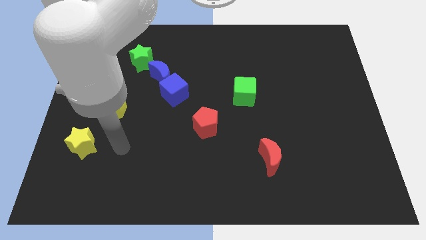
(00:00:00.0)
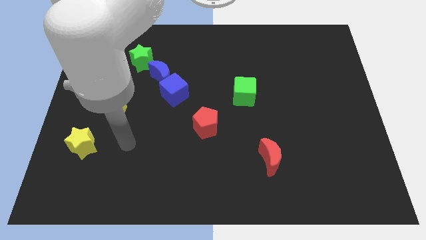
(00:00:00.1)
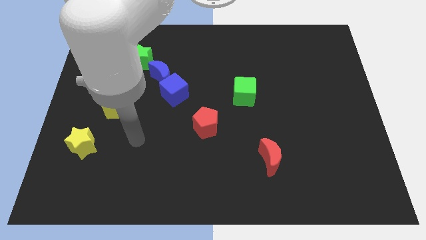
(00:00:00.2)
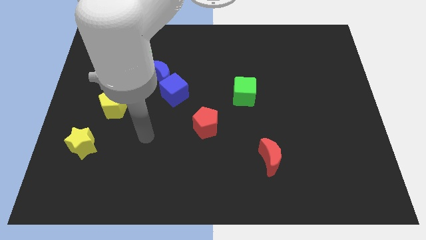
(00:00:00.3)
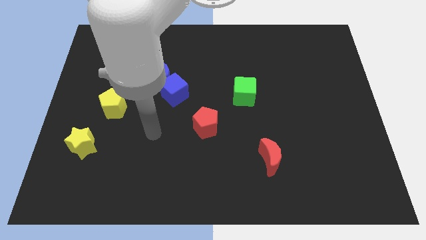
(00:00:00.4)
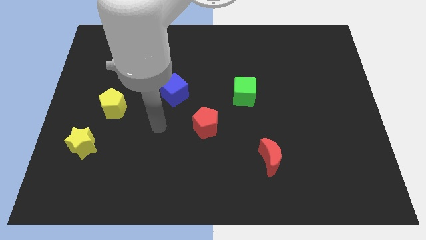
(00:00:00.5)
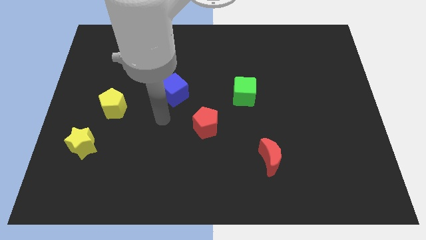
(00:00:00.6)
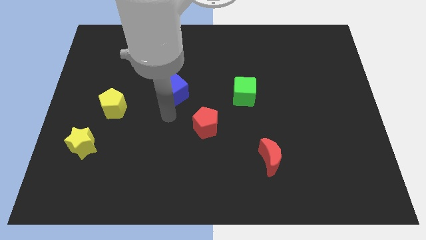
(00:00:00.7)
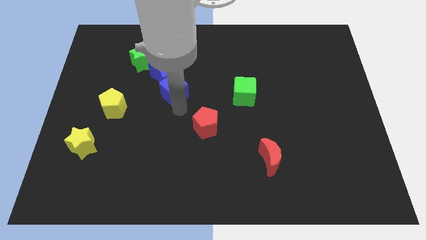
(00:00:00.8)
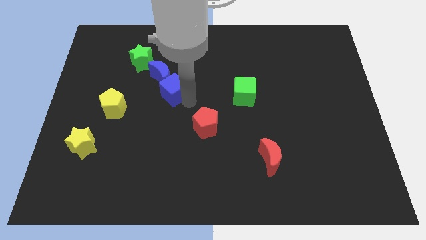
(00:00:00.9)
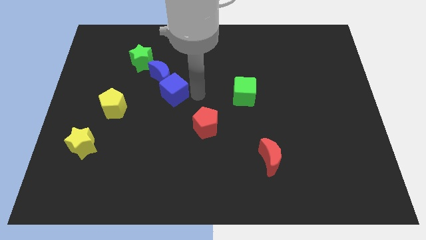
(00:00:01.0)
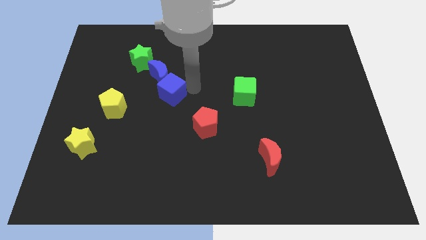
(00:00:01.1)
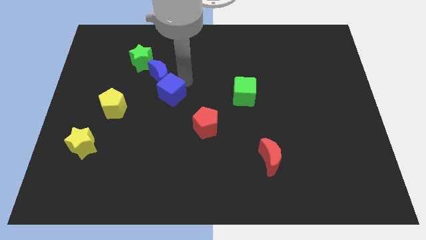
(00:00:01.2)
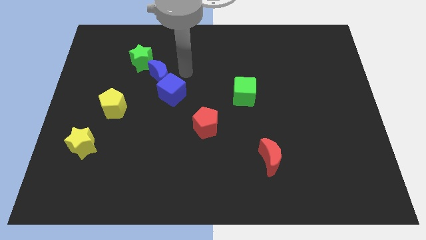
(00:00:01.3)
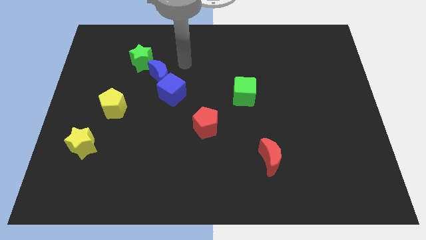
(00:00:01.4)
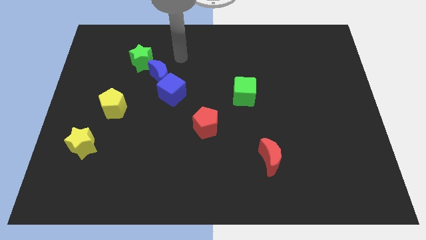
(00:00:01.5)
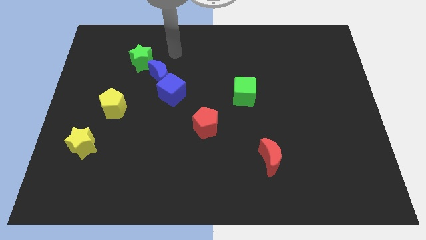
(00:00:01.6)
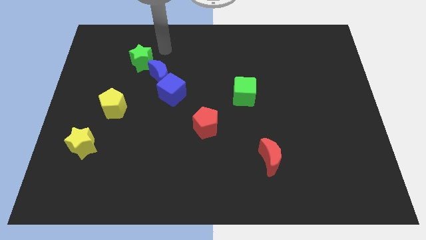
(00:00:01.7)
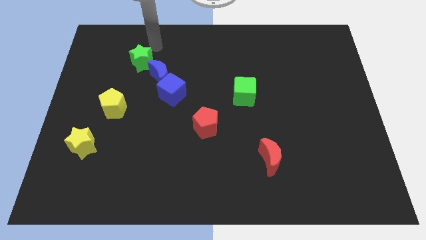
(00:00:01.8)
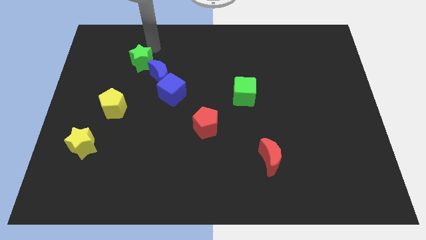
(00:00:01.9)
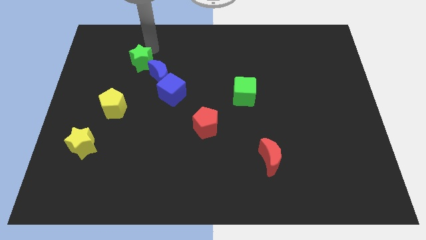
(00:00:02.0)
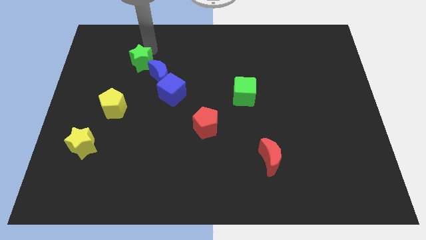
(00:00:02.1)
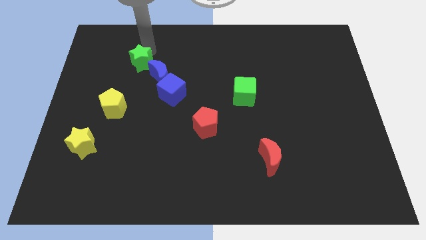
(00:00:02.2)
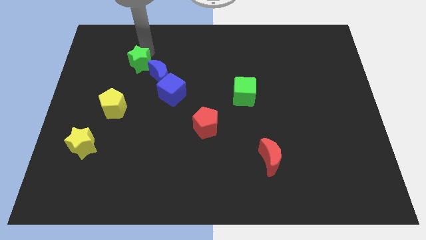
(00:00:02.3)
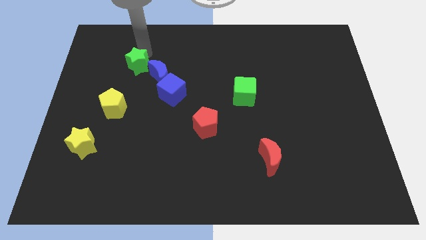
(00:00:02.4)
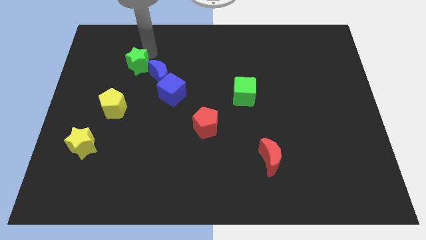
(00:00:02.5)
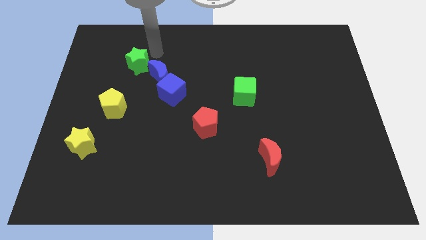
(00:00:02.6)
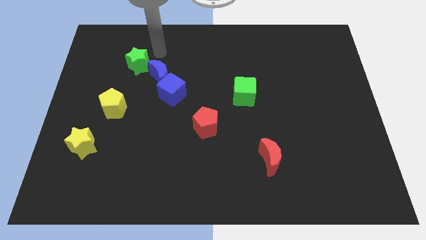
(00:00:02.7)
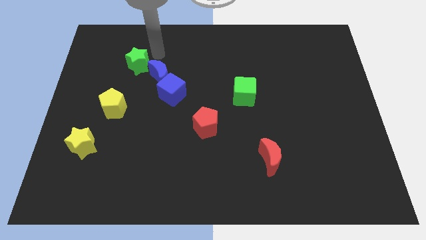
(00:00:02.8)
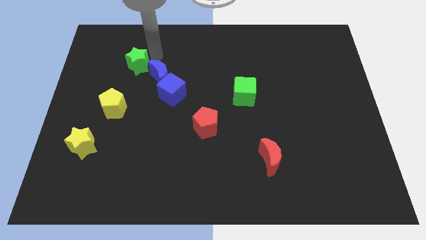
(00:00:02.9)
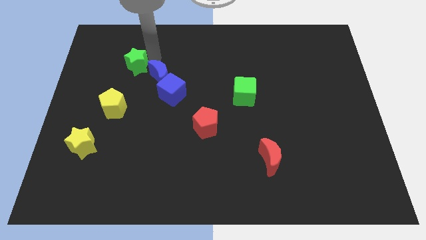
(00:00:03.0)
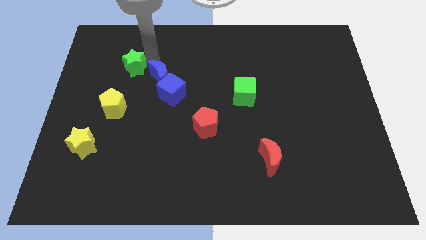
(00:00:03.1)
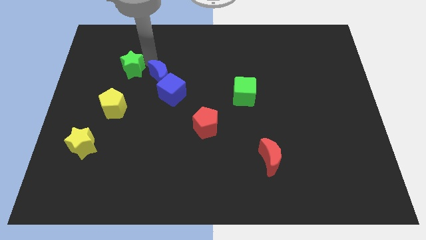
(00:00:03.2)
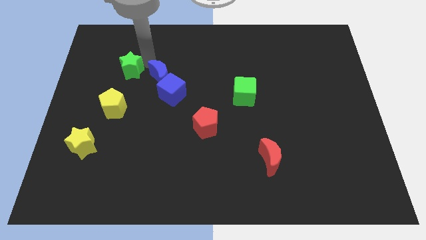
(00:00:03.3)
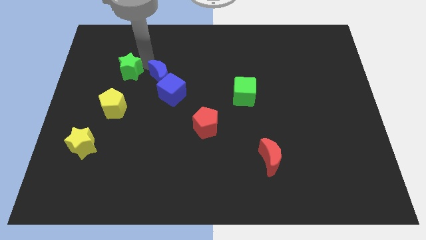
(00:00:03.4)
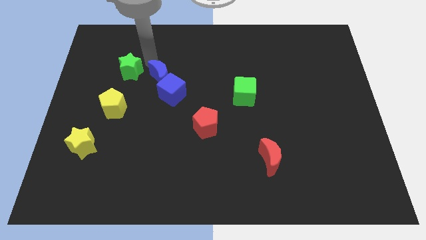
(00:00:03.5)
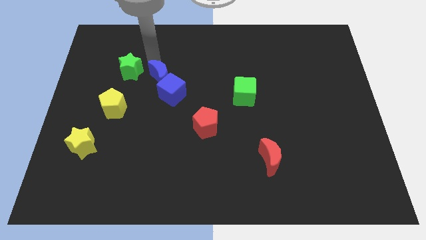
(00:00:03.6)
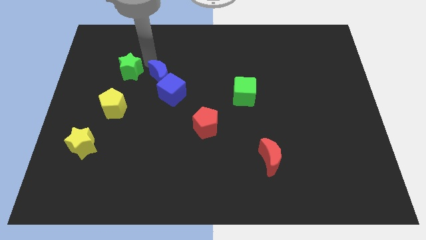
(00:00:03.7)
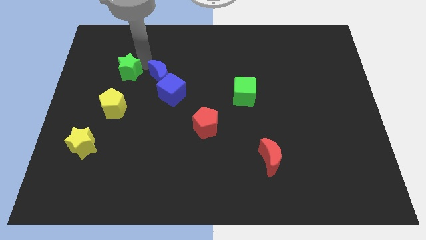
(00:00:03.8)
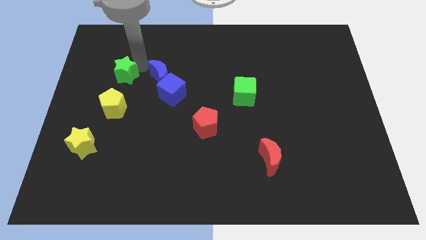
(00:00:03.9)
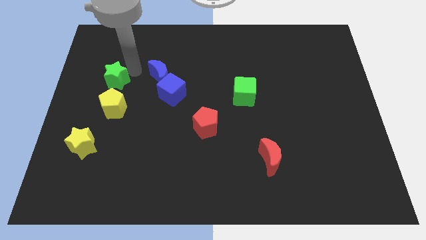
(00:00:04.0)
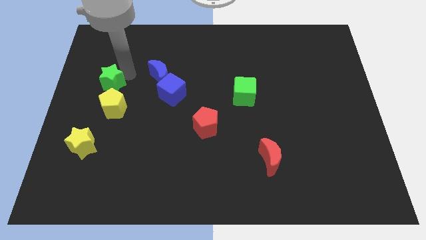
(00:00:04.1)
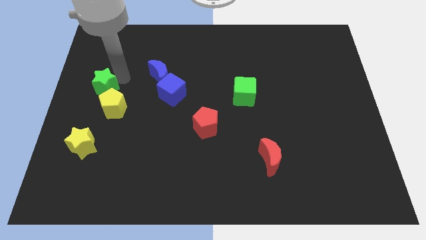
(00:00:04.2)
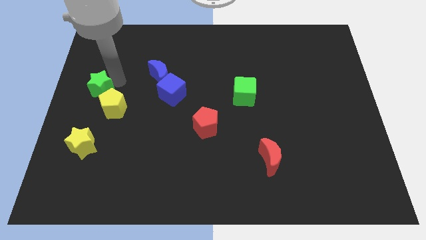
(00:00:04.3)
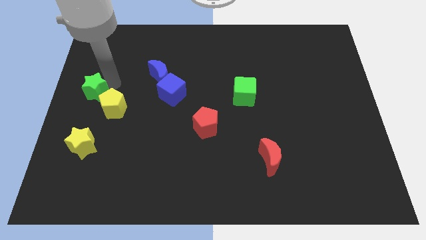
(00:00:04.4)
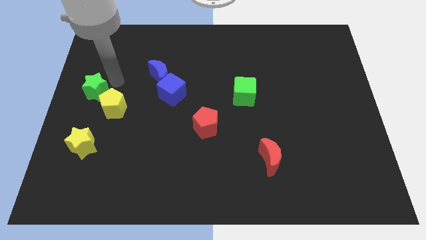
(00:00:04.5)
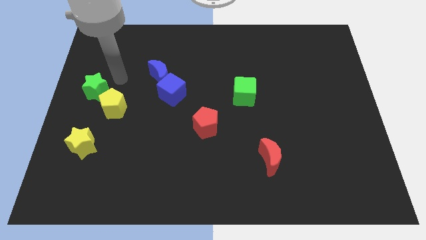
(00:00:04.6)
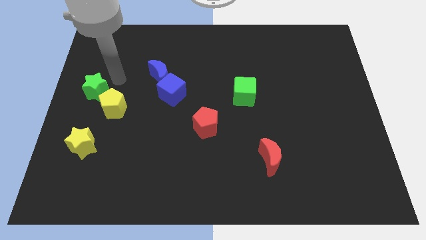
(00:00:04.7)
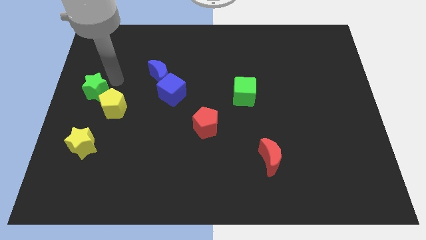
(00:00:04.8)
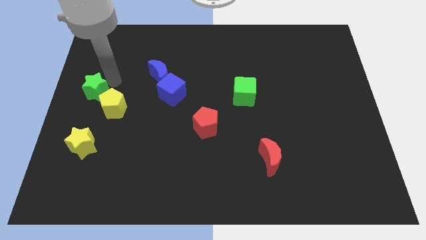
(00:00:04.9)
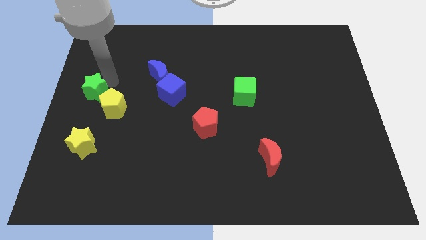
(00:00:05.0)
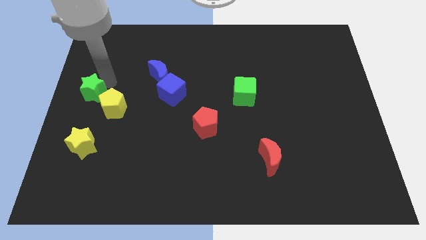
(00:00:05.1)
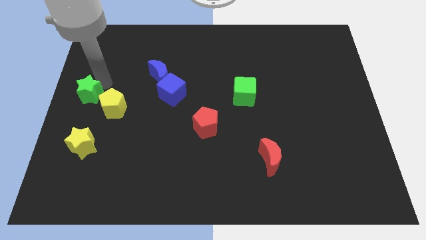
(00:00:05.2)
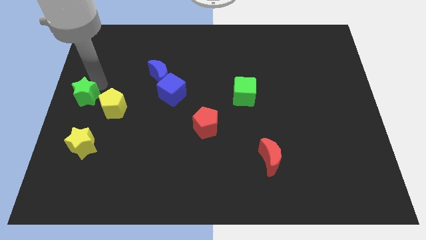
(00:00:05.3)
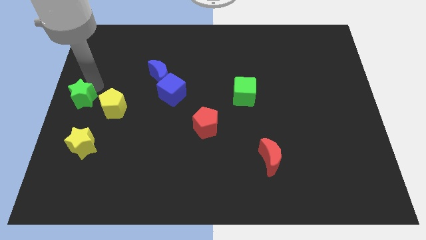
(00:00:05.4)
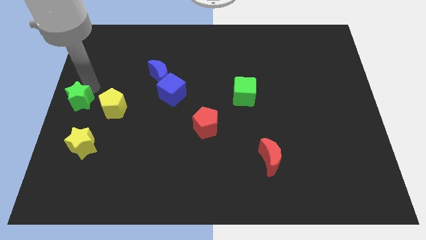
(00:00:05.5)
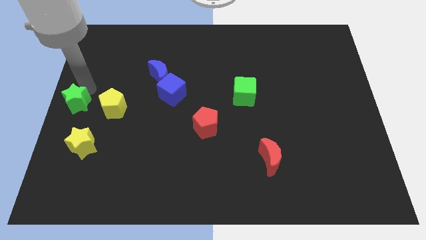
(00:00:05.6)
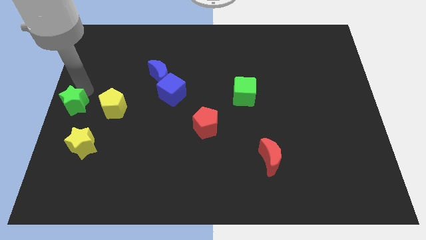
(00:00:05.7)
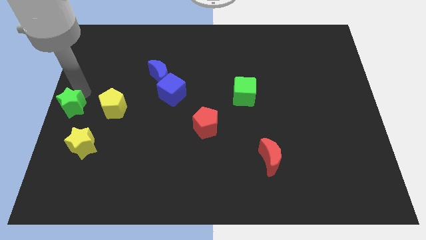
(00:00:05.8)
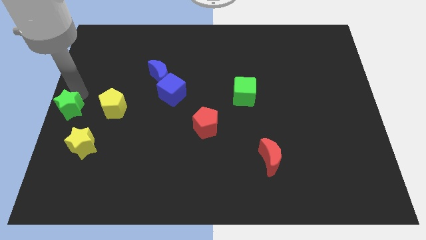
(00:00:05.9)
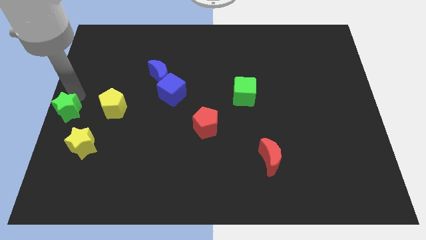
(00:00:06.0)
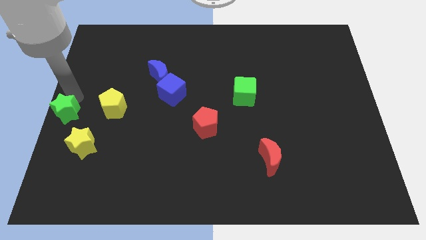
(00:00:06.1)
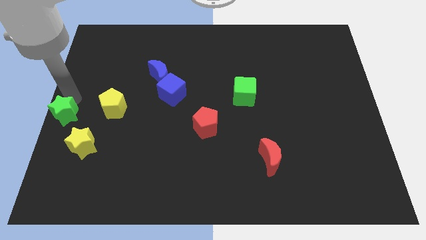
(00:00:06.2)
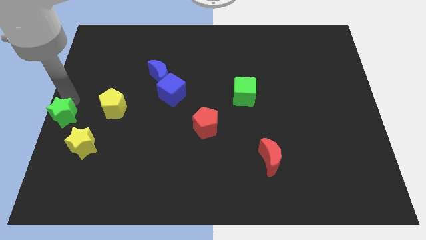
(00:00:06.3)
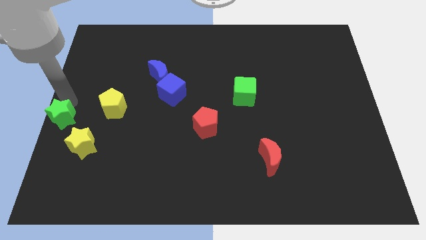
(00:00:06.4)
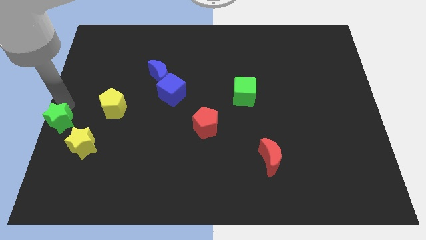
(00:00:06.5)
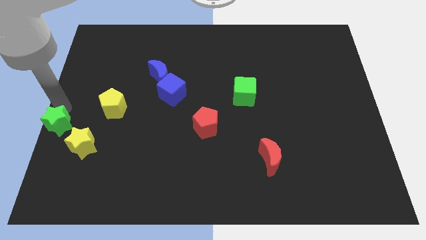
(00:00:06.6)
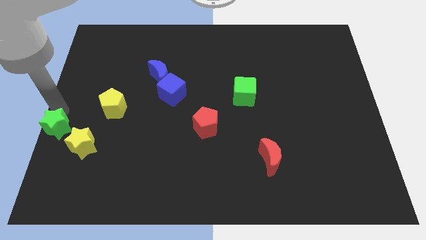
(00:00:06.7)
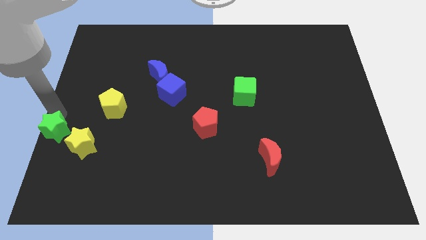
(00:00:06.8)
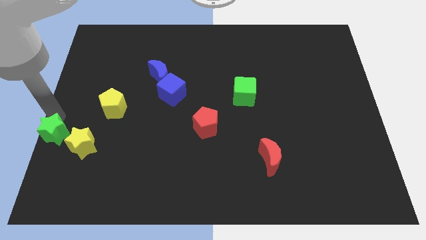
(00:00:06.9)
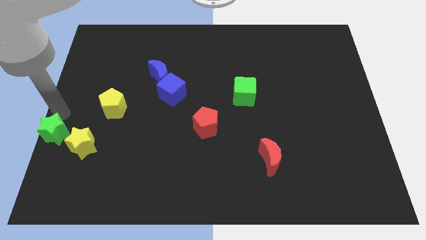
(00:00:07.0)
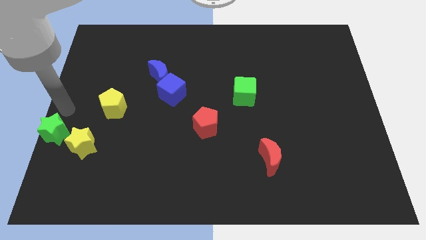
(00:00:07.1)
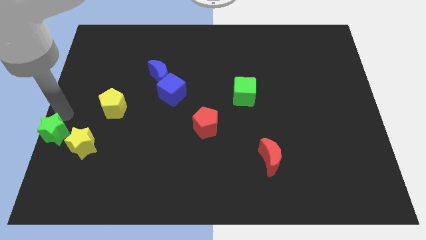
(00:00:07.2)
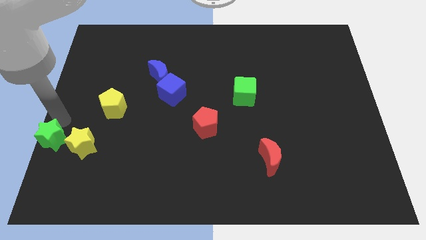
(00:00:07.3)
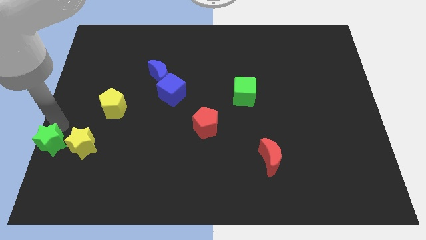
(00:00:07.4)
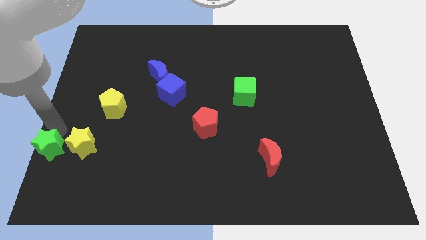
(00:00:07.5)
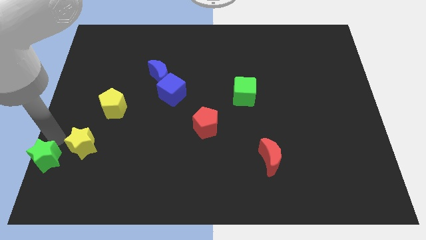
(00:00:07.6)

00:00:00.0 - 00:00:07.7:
put the green star to the bottom left of the board

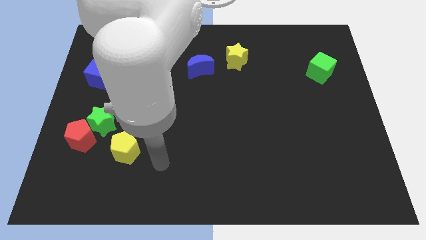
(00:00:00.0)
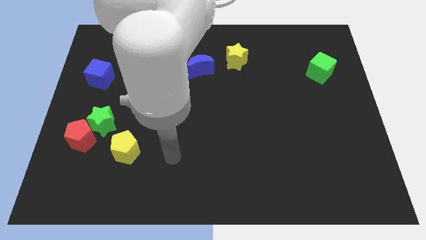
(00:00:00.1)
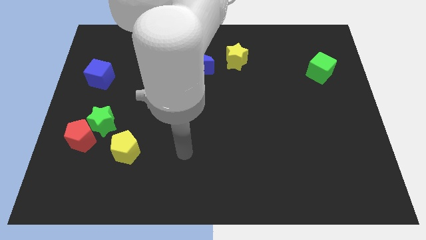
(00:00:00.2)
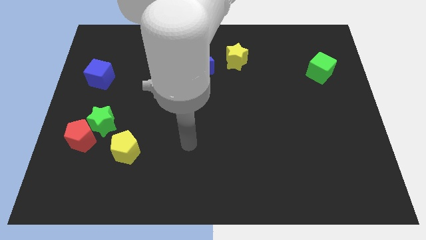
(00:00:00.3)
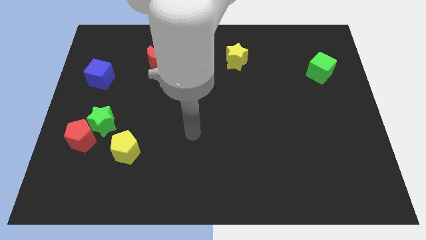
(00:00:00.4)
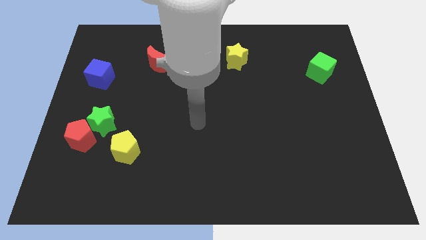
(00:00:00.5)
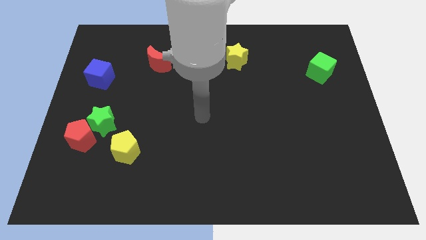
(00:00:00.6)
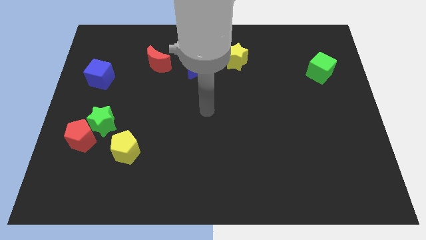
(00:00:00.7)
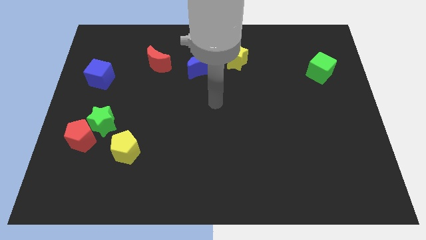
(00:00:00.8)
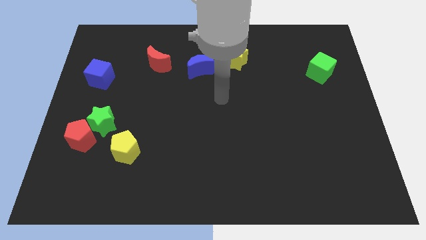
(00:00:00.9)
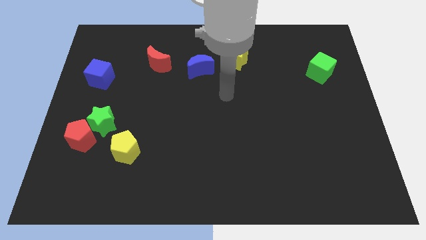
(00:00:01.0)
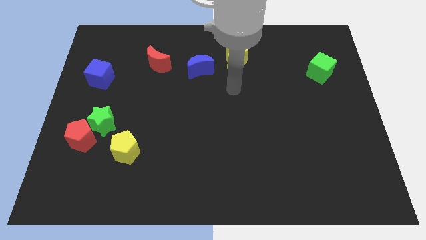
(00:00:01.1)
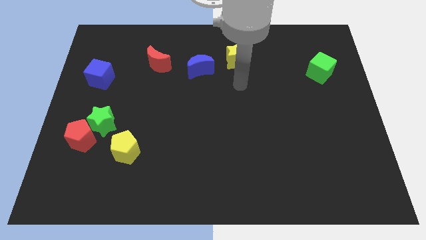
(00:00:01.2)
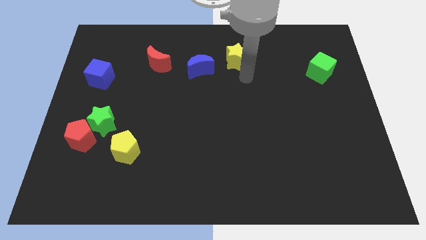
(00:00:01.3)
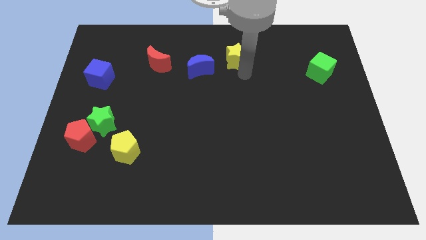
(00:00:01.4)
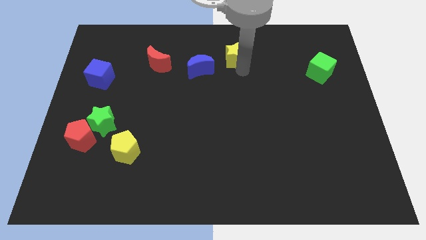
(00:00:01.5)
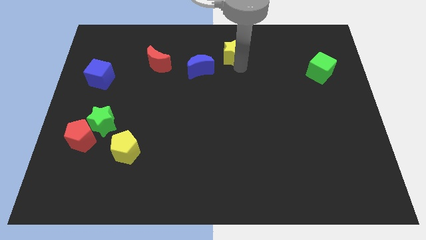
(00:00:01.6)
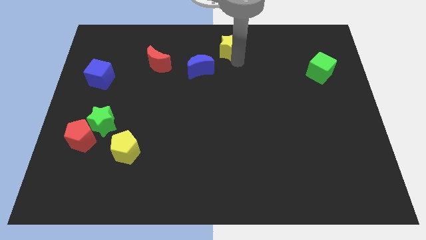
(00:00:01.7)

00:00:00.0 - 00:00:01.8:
slide the yellow star to the towards your base
